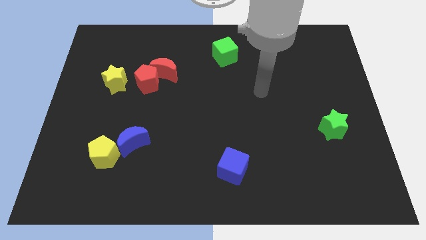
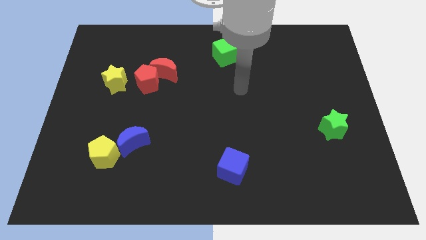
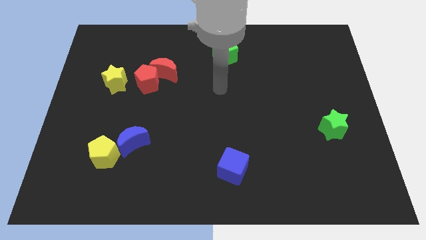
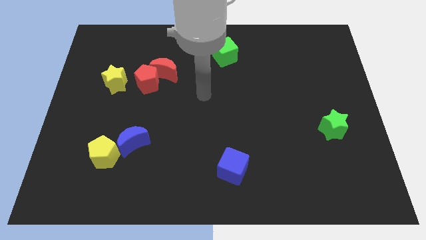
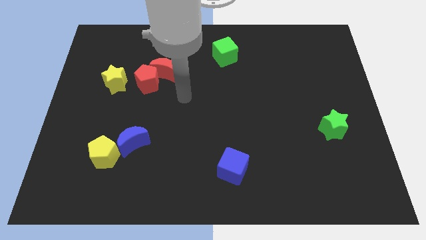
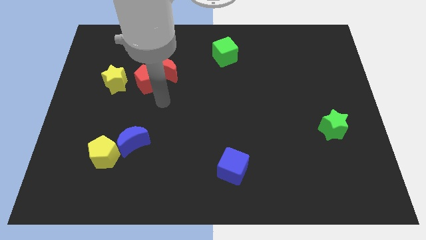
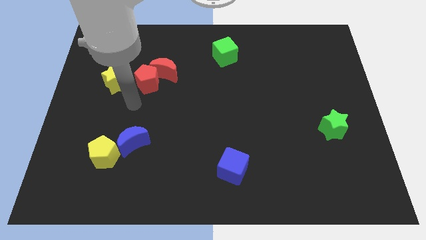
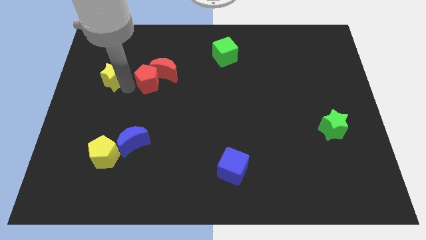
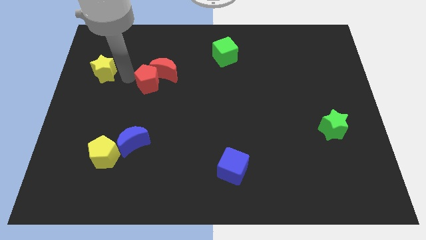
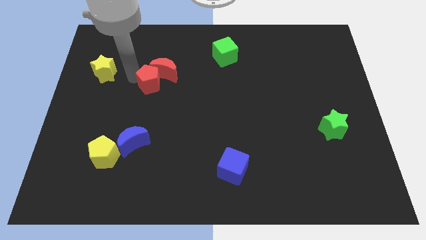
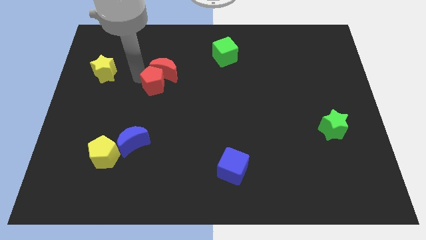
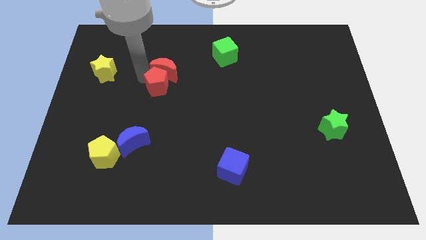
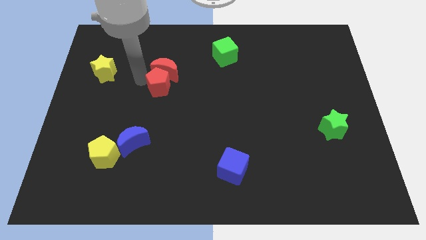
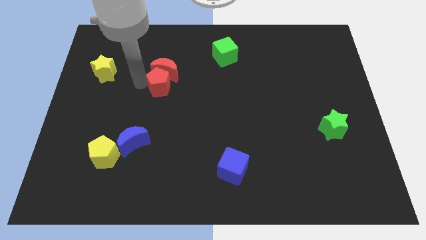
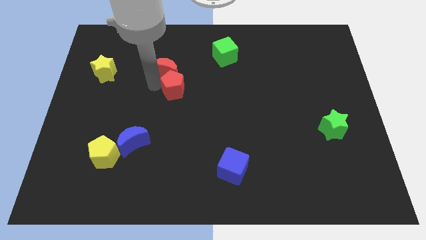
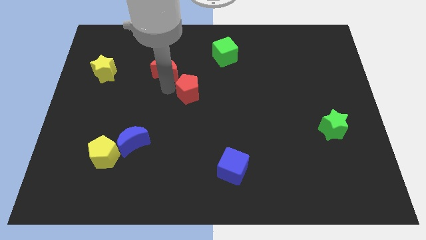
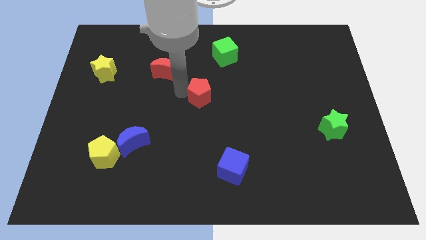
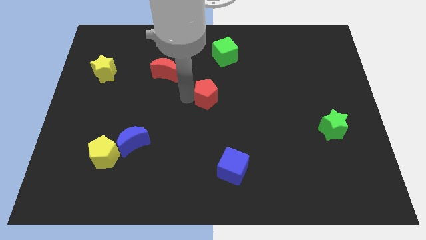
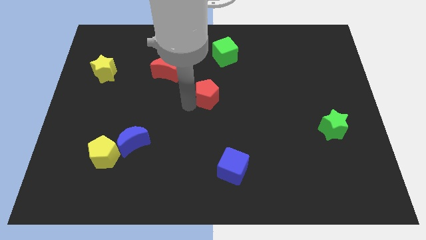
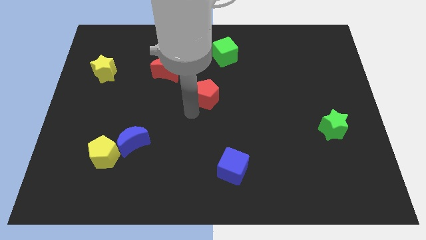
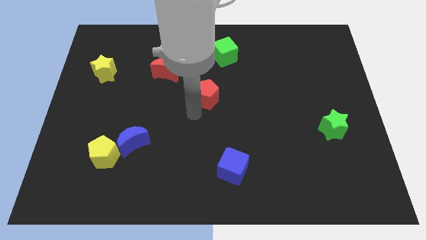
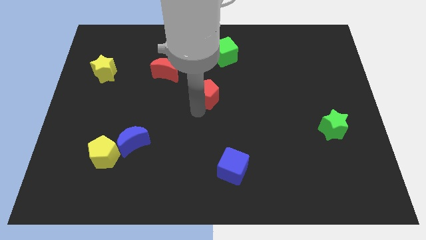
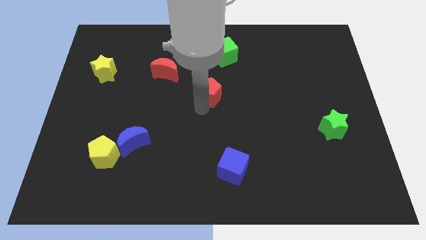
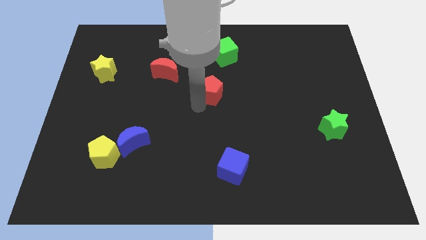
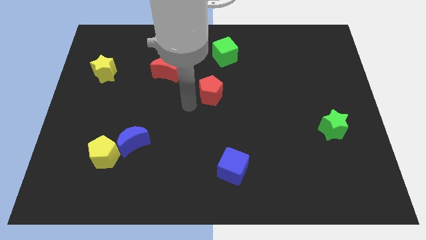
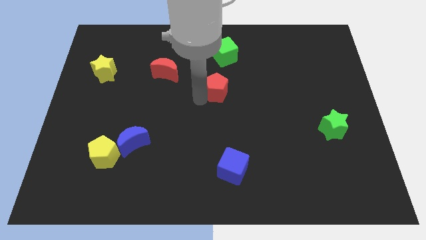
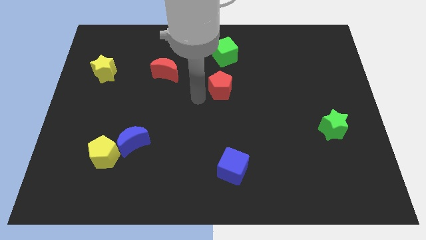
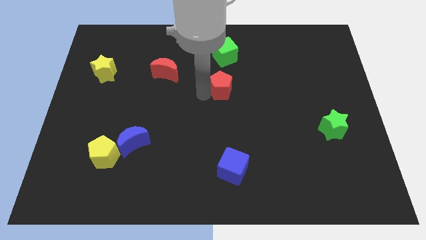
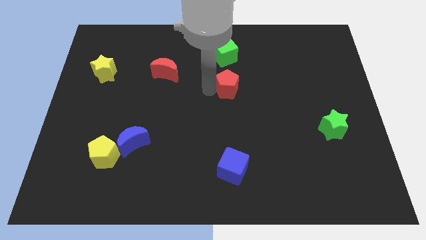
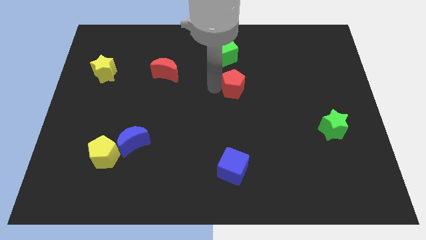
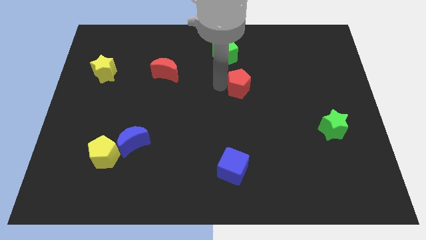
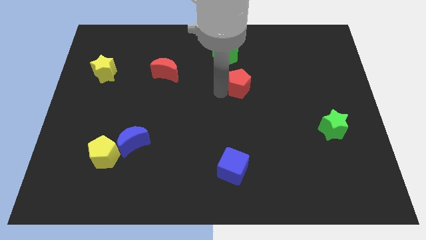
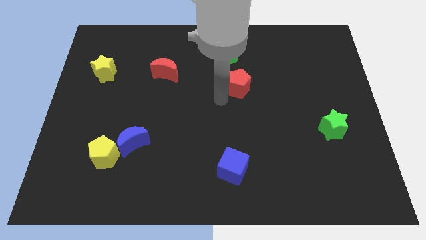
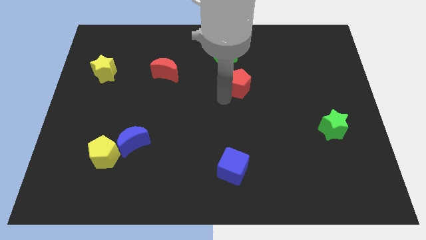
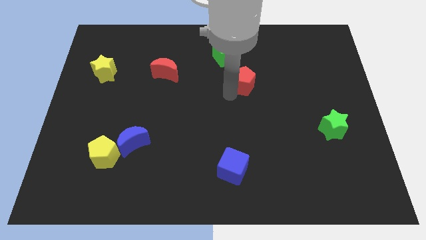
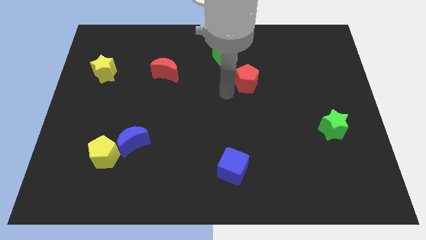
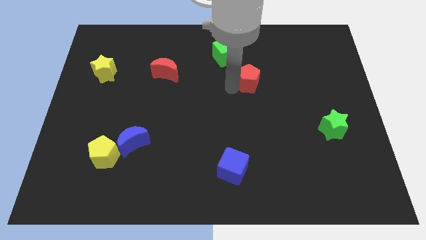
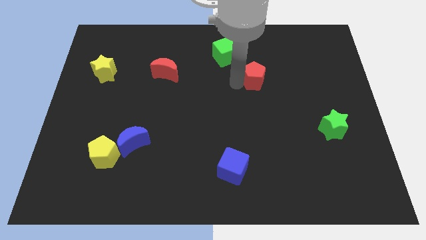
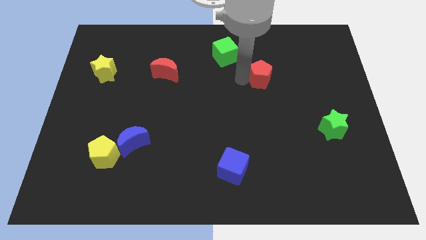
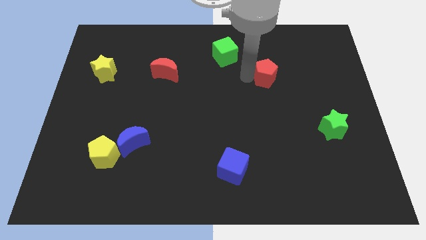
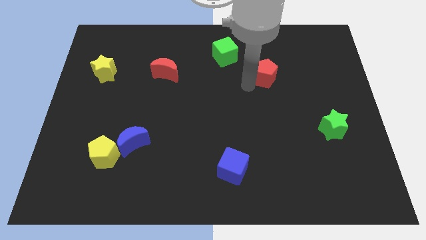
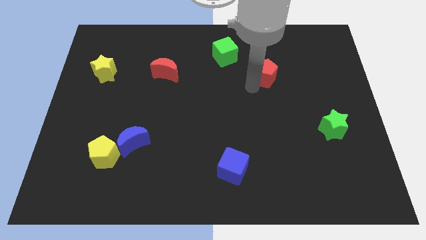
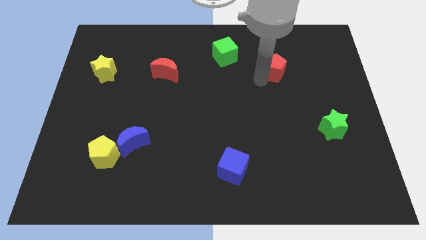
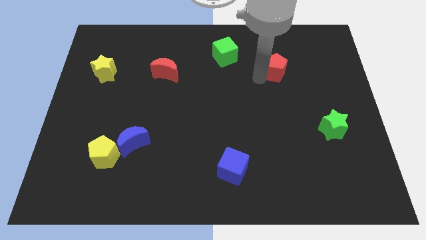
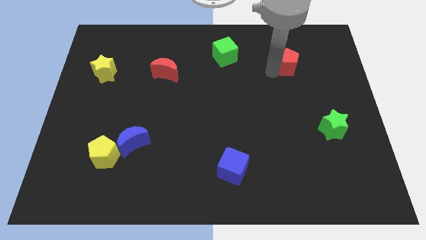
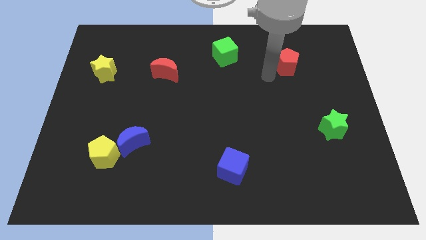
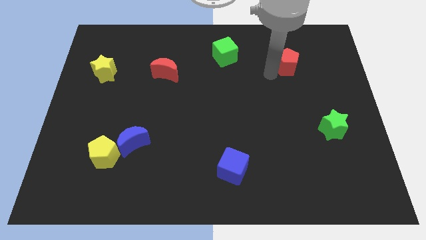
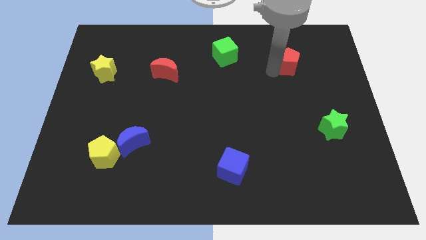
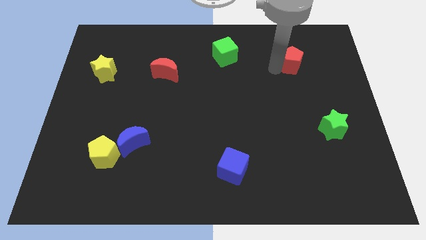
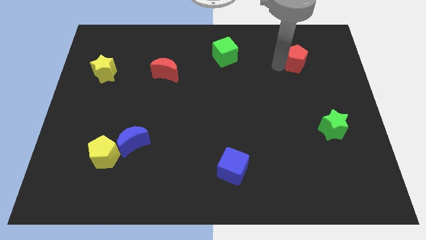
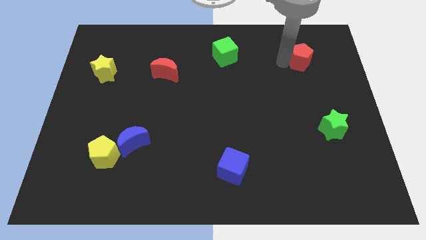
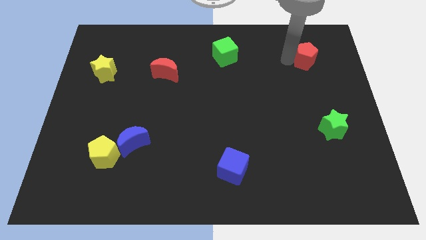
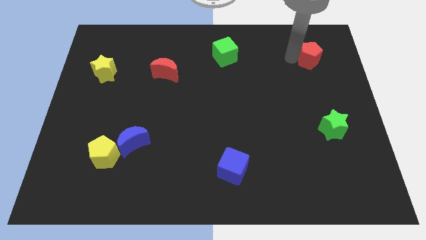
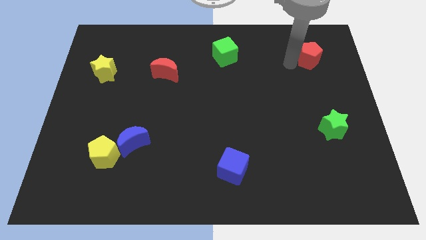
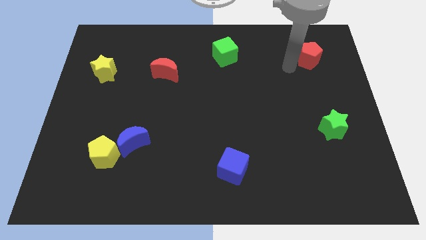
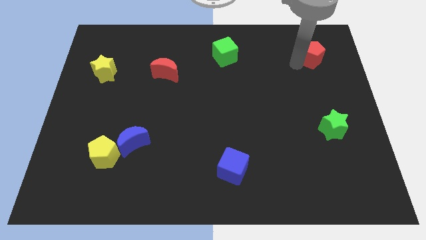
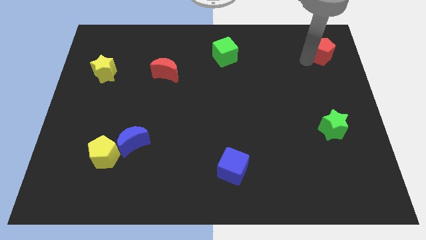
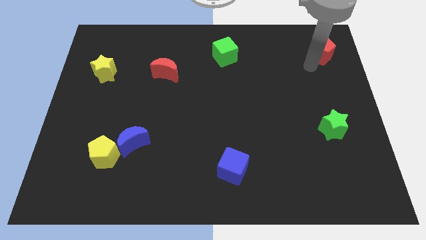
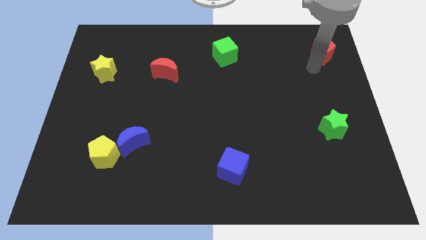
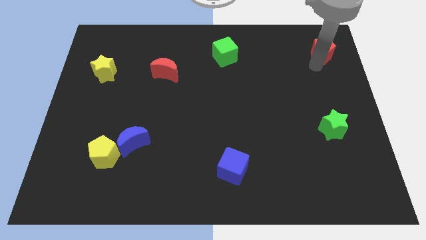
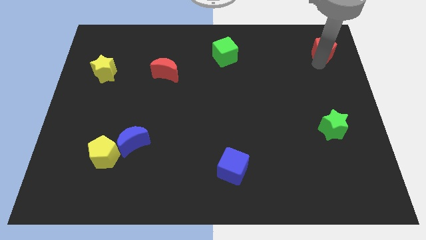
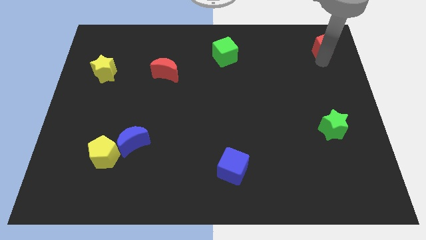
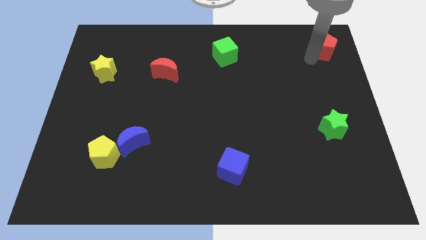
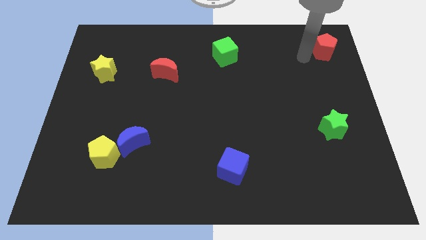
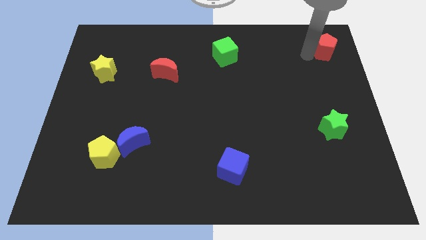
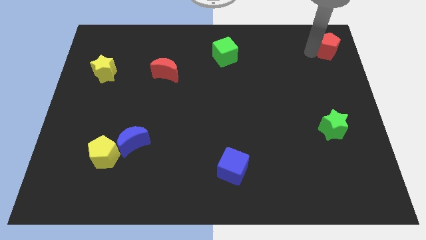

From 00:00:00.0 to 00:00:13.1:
move the red pentagon to the top right of the board
